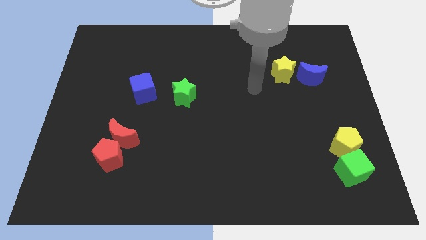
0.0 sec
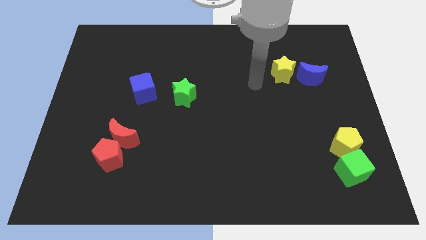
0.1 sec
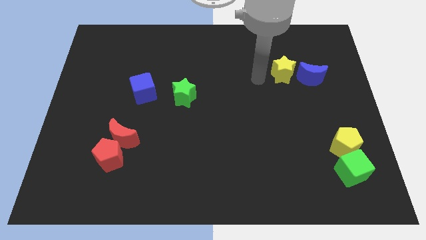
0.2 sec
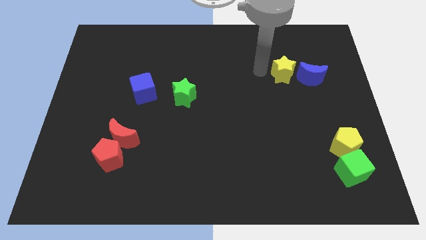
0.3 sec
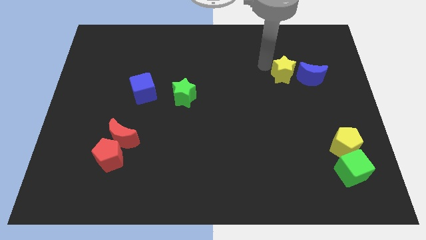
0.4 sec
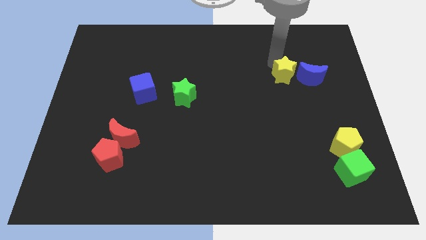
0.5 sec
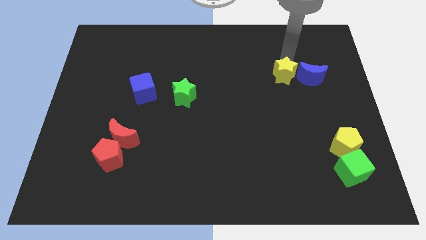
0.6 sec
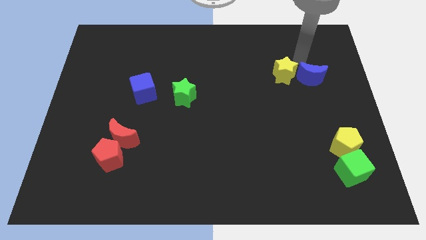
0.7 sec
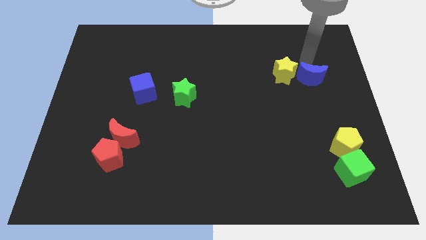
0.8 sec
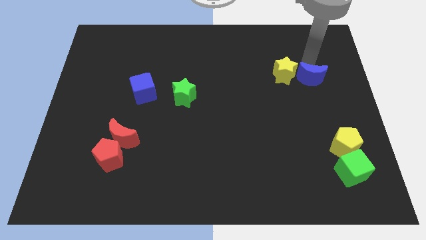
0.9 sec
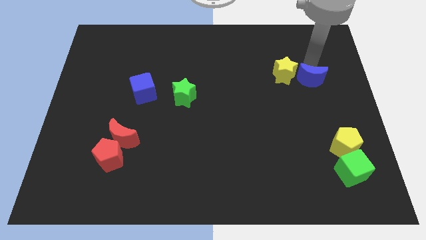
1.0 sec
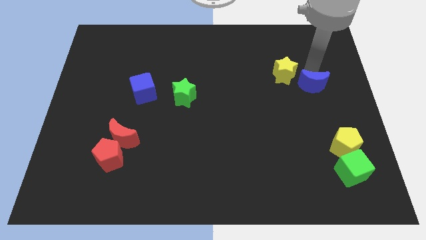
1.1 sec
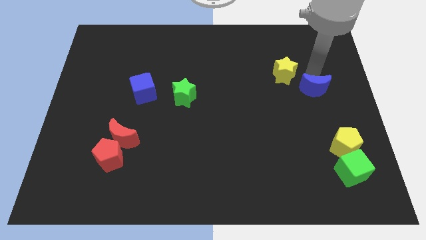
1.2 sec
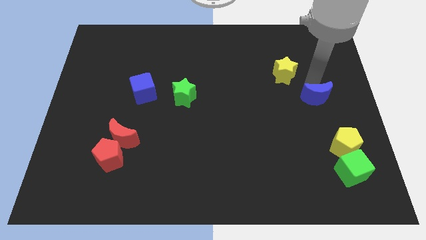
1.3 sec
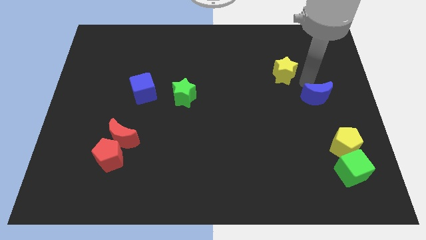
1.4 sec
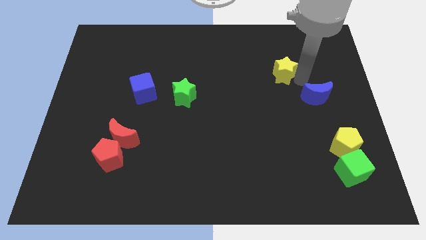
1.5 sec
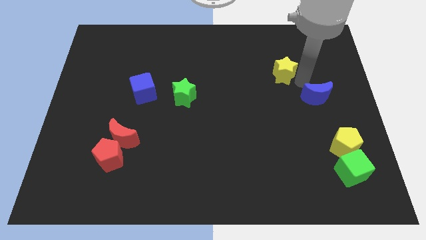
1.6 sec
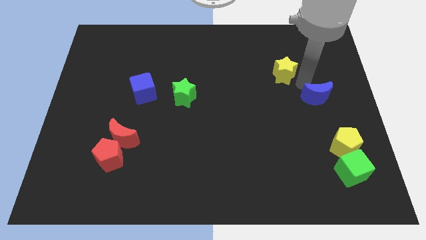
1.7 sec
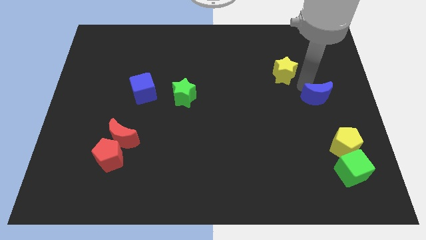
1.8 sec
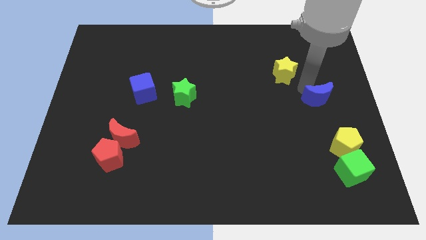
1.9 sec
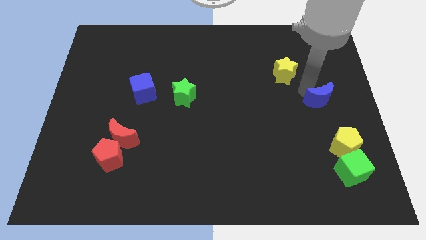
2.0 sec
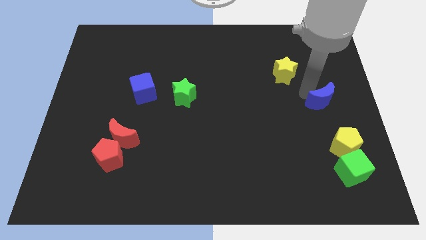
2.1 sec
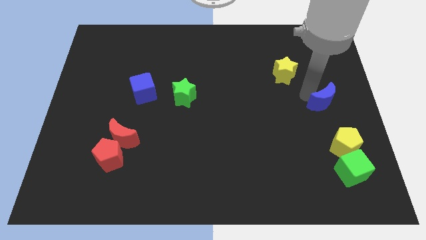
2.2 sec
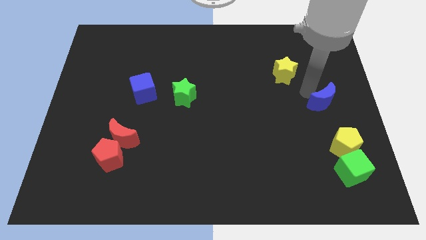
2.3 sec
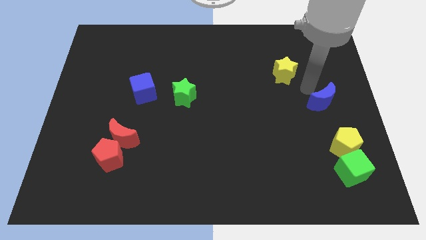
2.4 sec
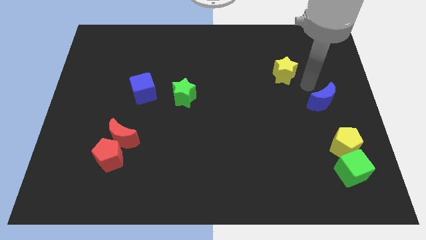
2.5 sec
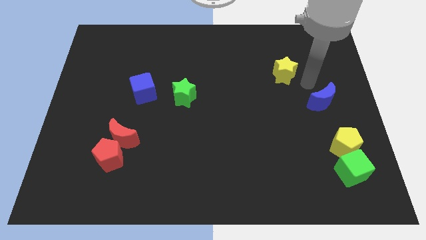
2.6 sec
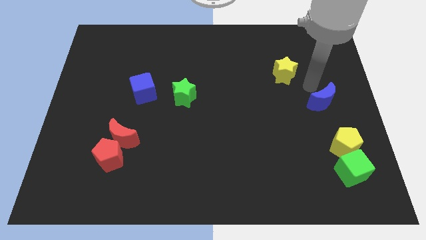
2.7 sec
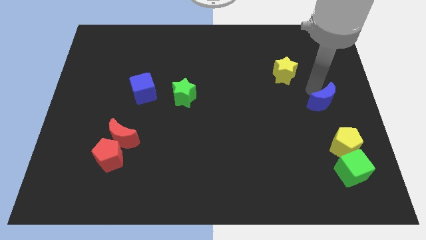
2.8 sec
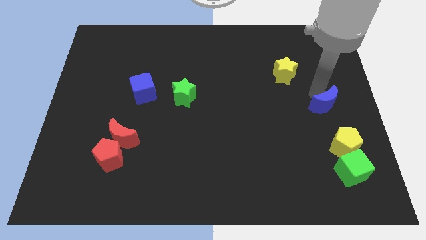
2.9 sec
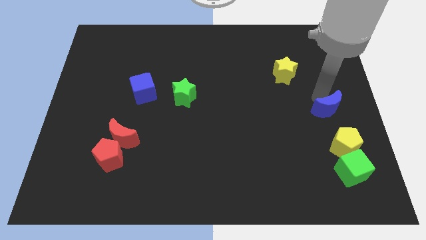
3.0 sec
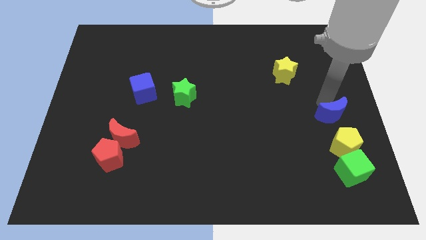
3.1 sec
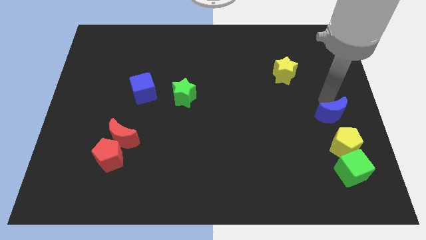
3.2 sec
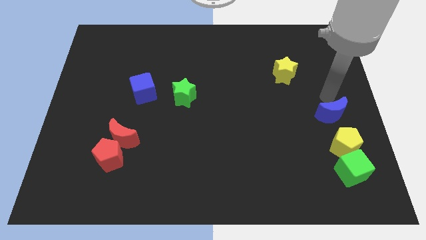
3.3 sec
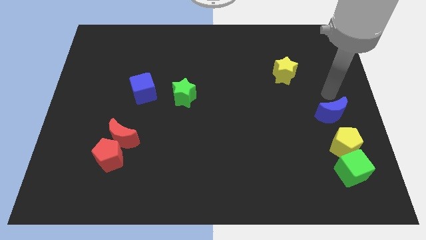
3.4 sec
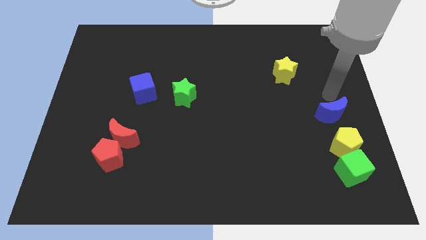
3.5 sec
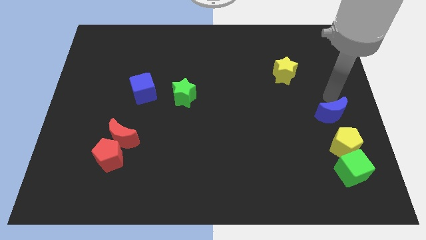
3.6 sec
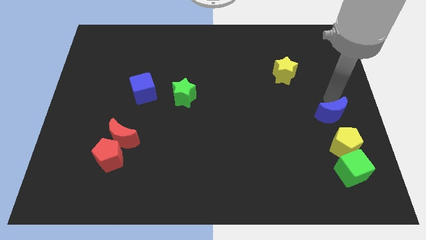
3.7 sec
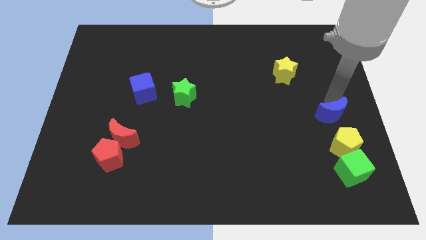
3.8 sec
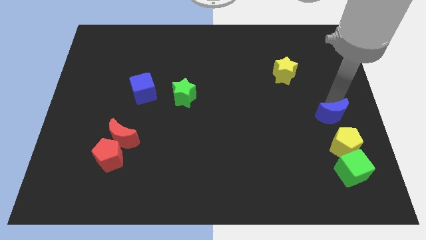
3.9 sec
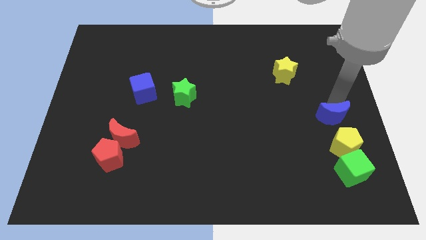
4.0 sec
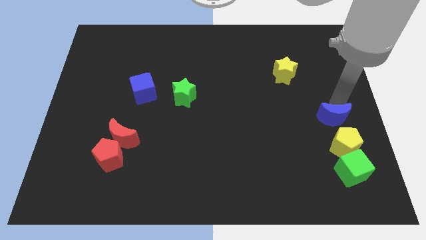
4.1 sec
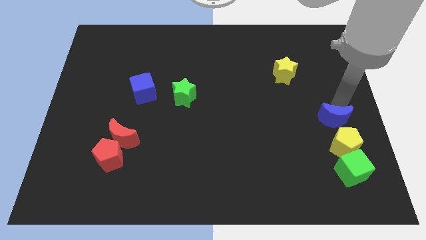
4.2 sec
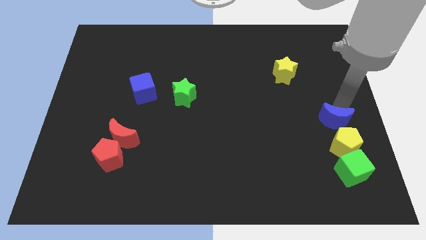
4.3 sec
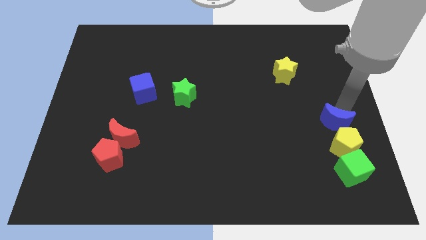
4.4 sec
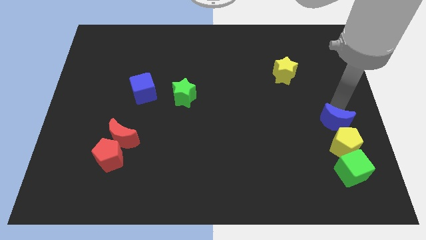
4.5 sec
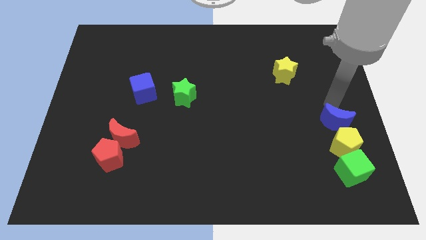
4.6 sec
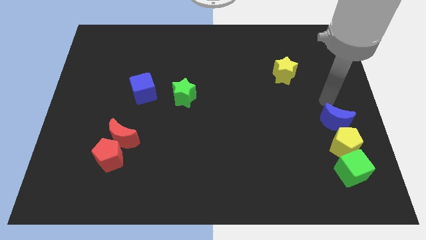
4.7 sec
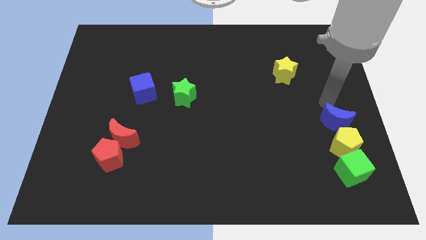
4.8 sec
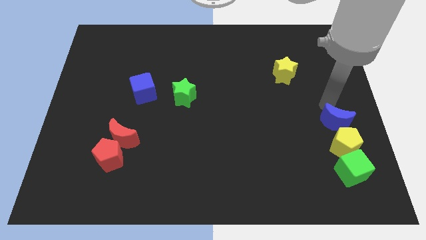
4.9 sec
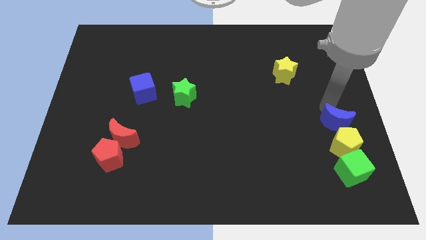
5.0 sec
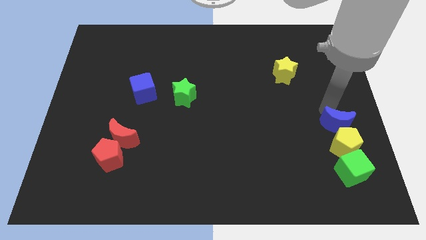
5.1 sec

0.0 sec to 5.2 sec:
put the blue moon close to the yellow pentagon

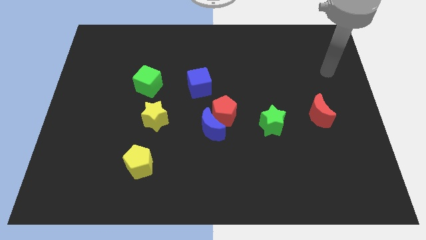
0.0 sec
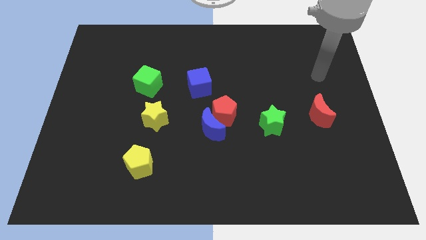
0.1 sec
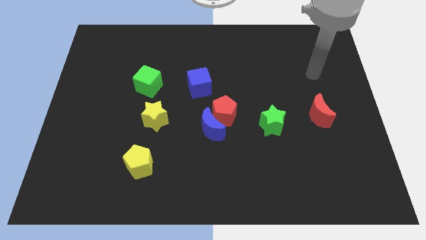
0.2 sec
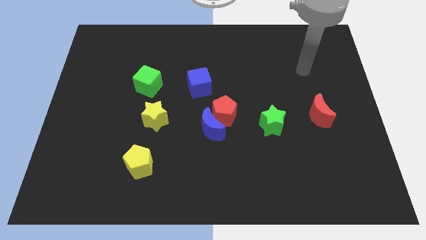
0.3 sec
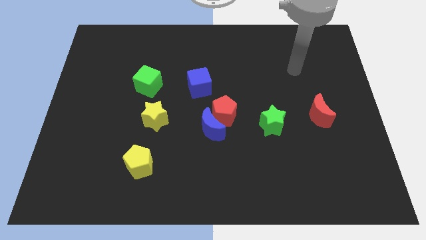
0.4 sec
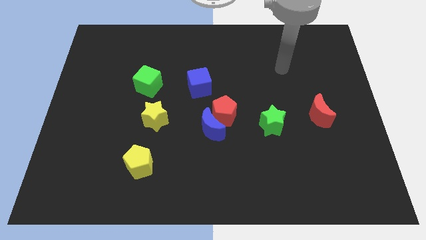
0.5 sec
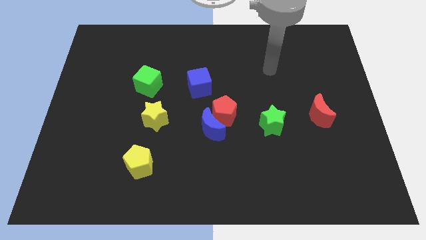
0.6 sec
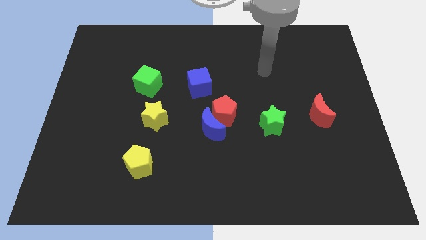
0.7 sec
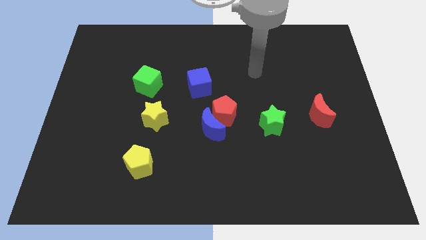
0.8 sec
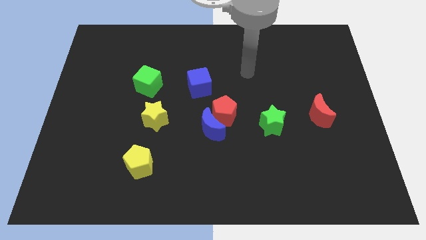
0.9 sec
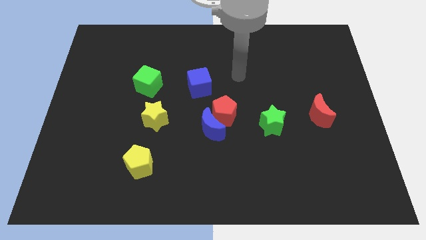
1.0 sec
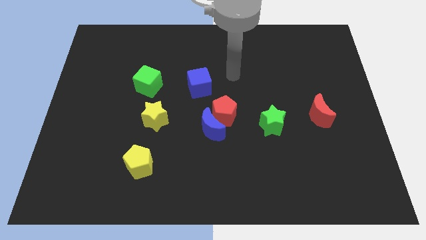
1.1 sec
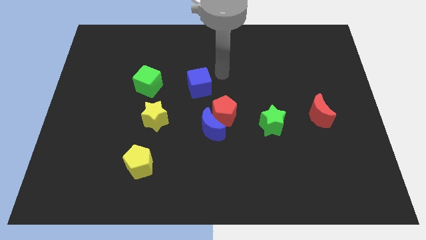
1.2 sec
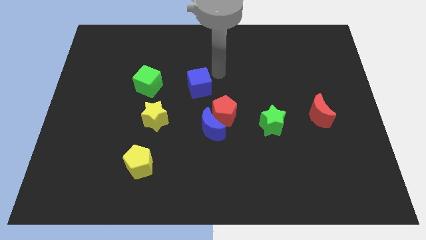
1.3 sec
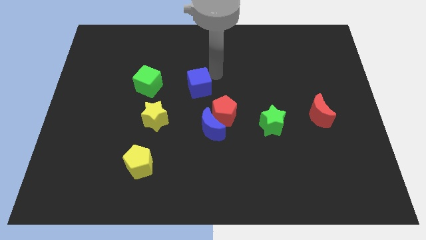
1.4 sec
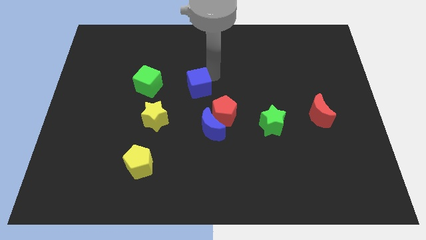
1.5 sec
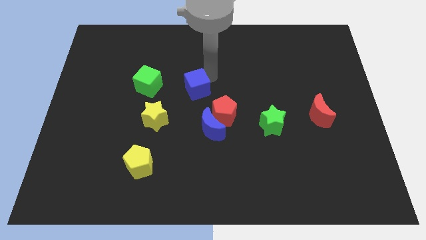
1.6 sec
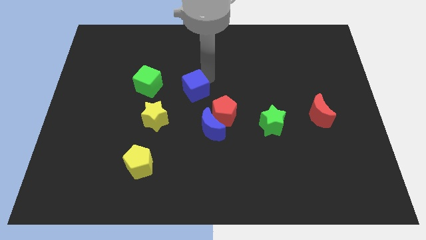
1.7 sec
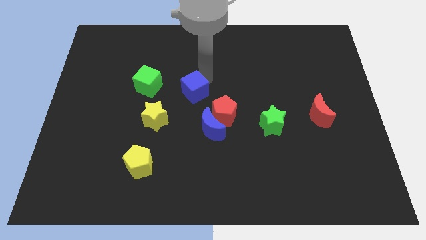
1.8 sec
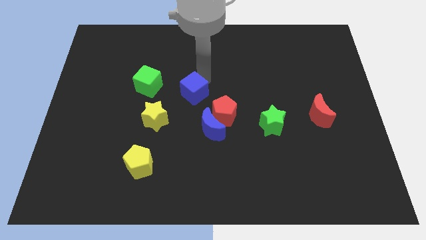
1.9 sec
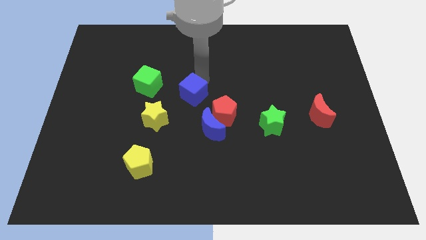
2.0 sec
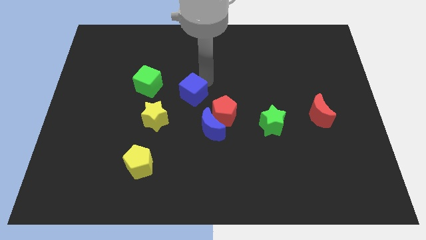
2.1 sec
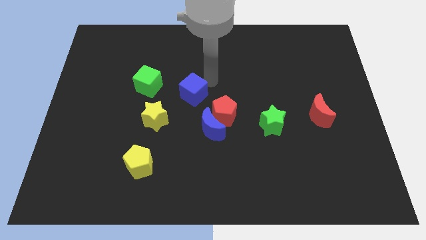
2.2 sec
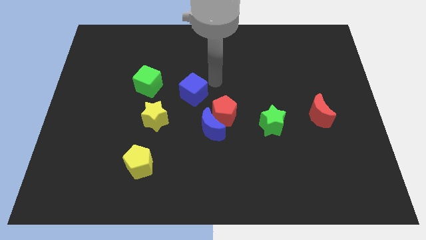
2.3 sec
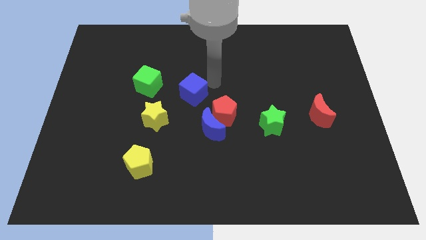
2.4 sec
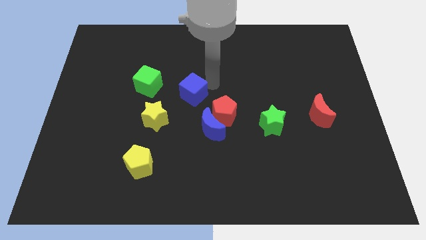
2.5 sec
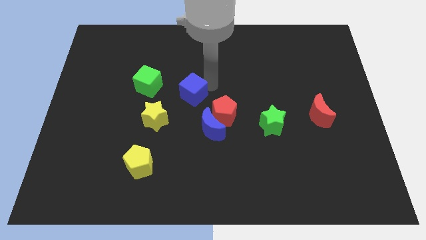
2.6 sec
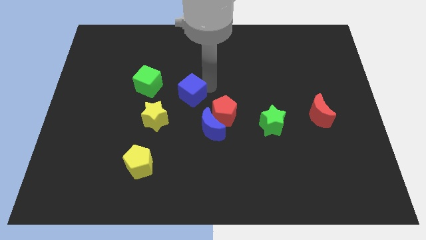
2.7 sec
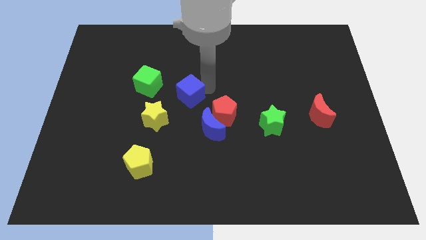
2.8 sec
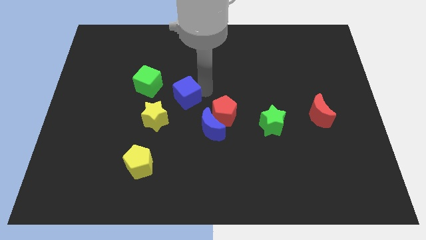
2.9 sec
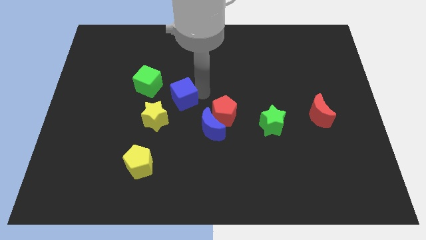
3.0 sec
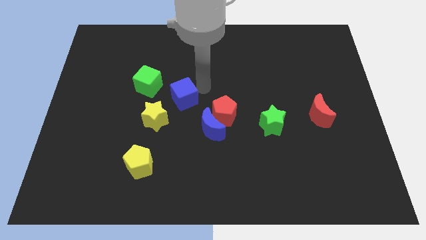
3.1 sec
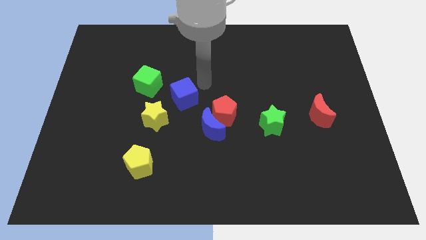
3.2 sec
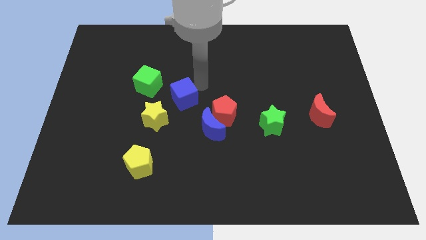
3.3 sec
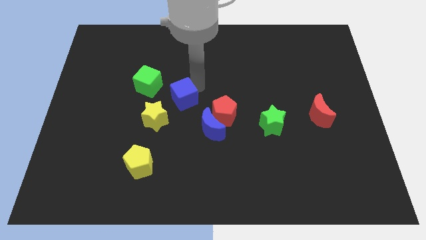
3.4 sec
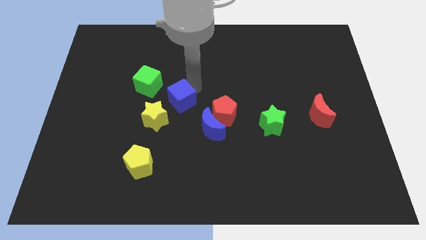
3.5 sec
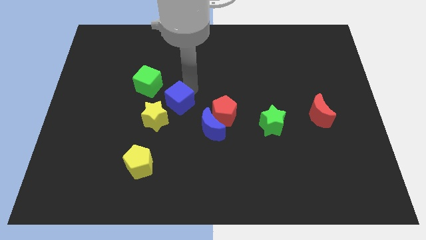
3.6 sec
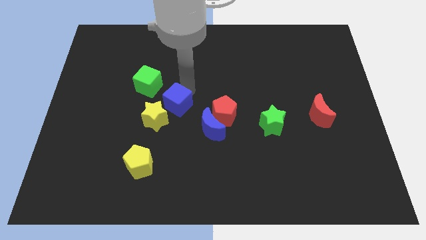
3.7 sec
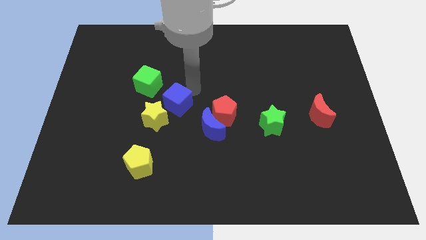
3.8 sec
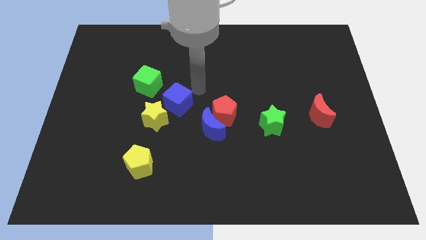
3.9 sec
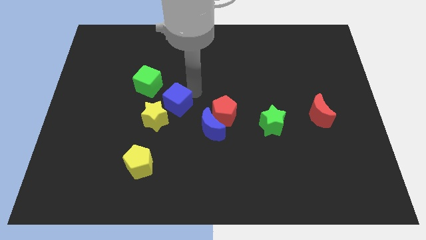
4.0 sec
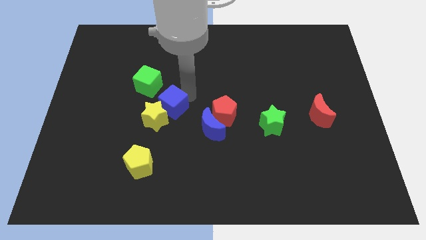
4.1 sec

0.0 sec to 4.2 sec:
put the blue cube to the yellow star
